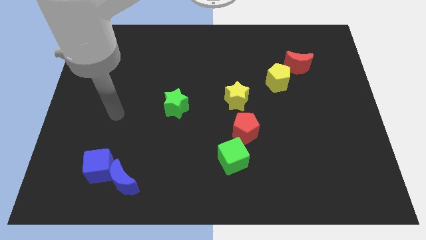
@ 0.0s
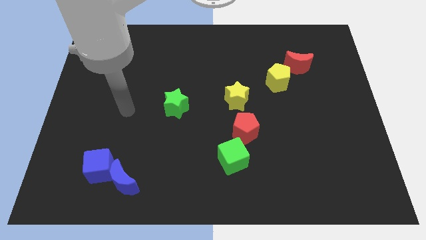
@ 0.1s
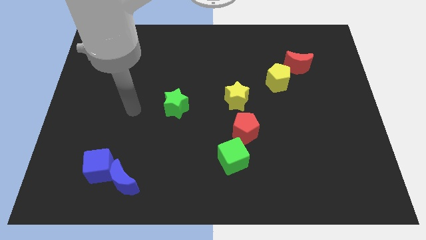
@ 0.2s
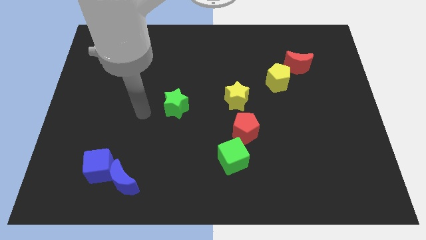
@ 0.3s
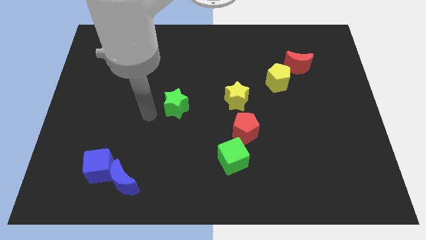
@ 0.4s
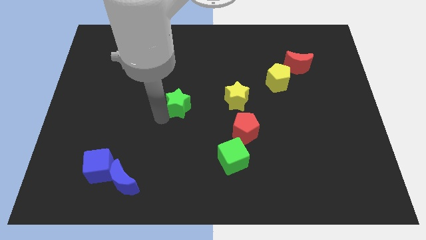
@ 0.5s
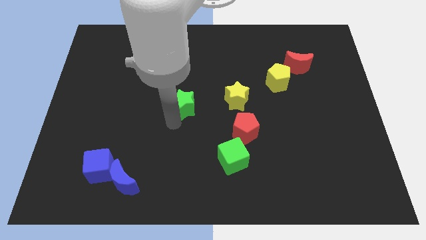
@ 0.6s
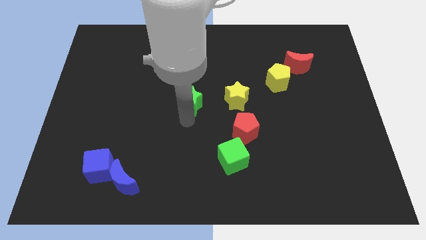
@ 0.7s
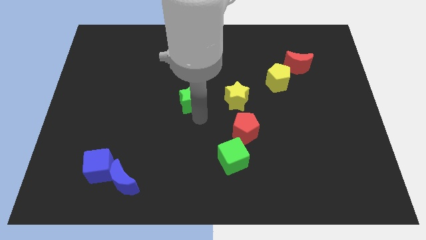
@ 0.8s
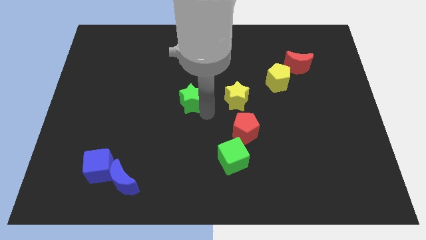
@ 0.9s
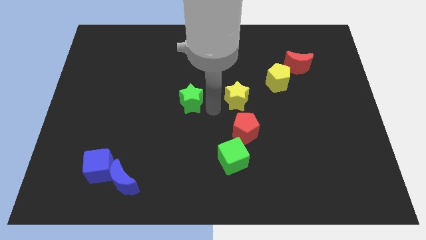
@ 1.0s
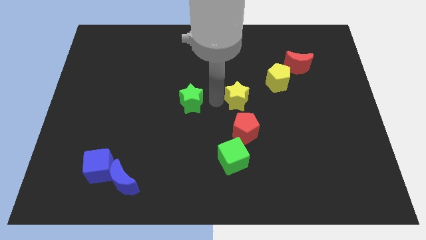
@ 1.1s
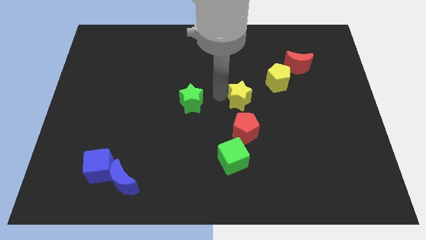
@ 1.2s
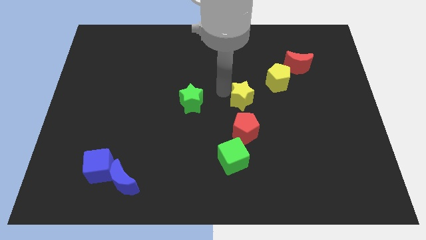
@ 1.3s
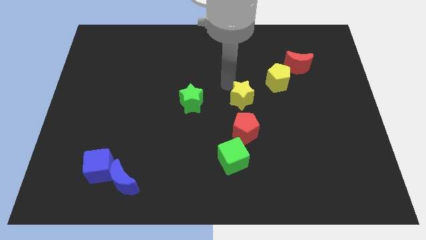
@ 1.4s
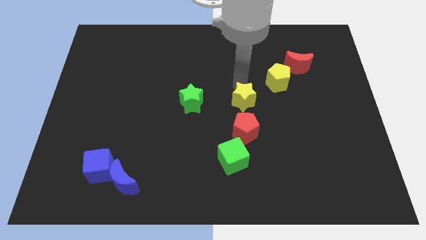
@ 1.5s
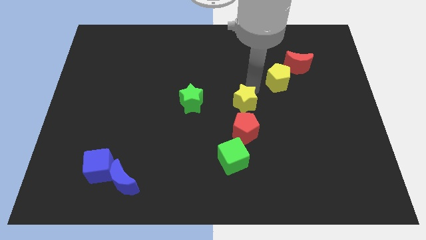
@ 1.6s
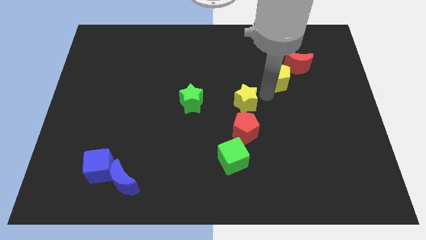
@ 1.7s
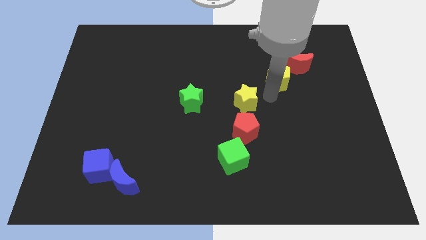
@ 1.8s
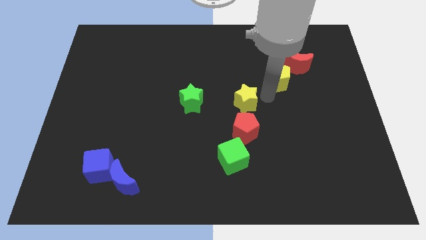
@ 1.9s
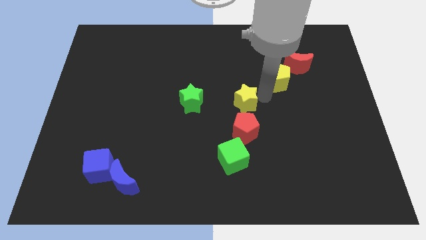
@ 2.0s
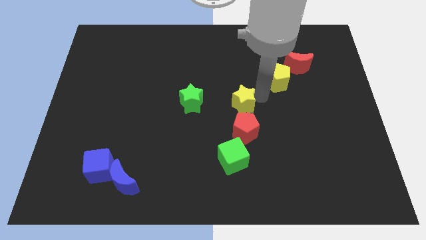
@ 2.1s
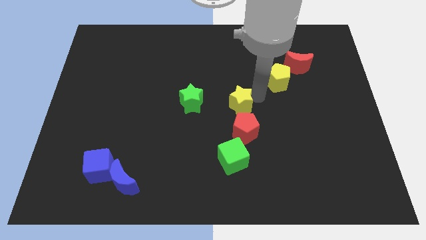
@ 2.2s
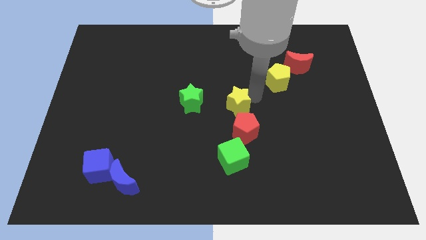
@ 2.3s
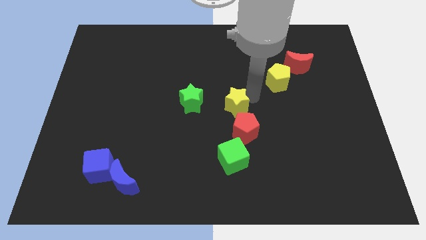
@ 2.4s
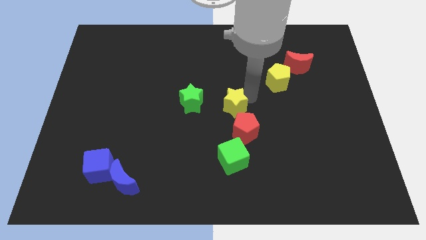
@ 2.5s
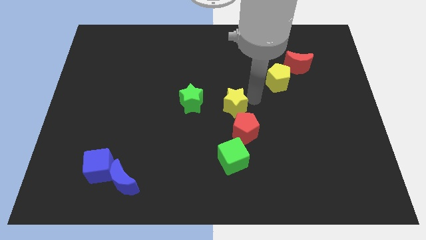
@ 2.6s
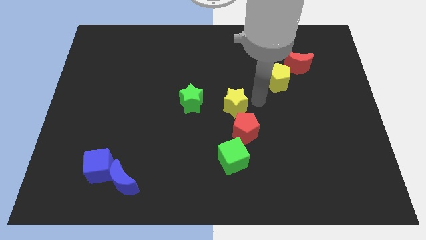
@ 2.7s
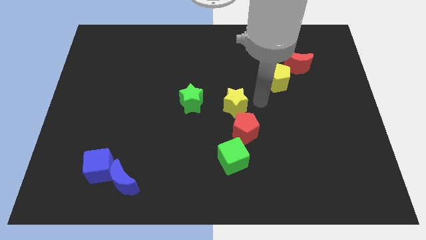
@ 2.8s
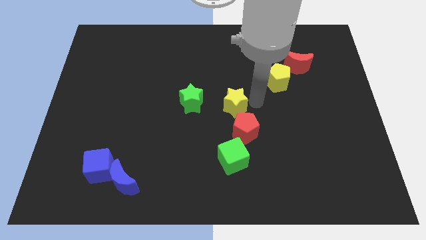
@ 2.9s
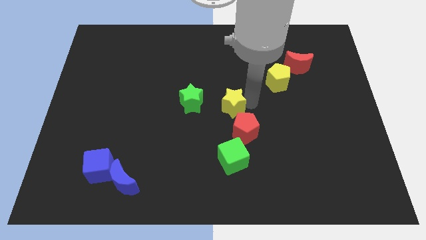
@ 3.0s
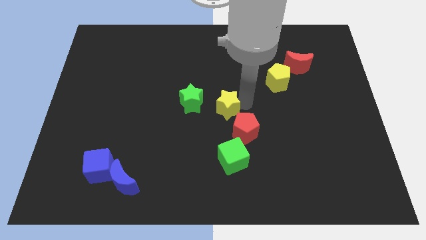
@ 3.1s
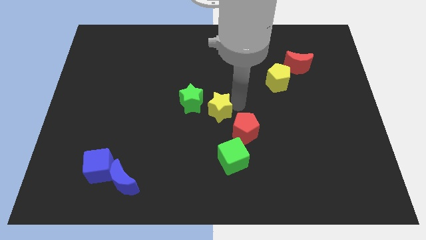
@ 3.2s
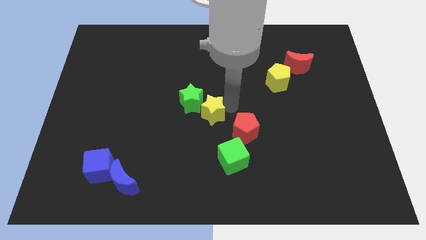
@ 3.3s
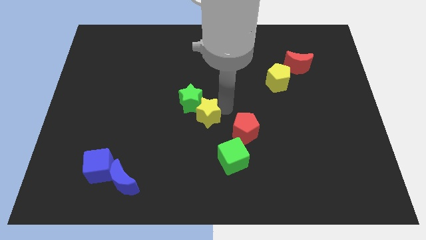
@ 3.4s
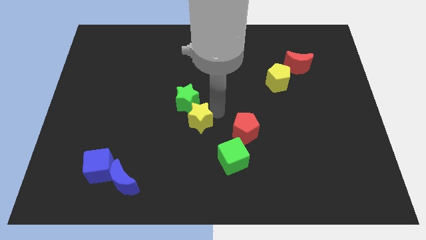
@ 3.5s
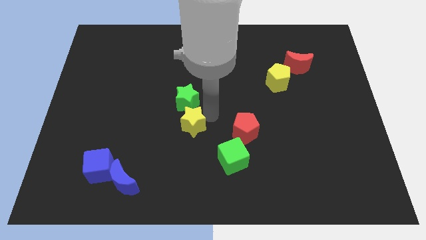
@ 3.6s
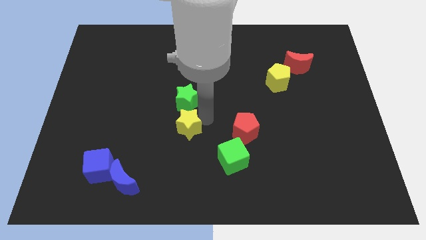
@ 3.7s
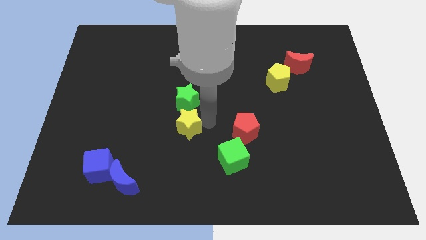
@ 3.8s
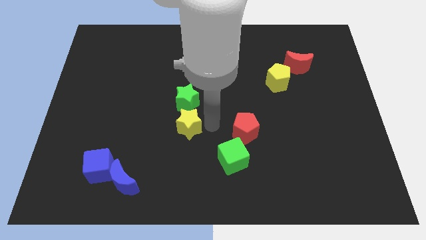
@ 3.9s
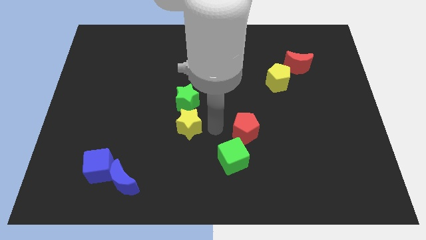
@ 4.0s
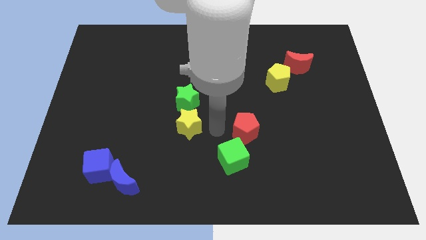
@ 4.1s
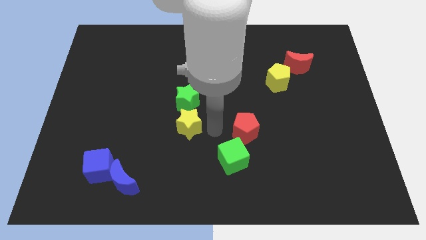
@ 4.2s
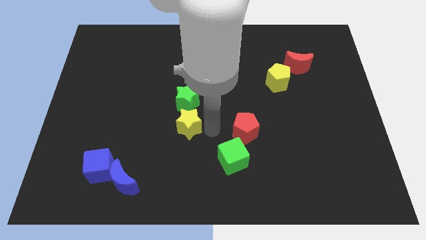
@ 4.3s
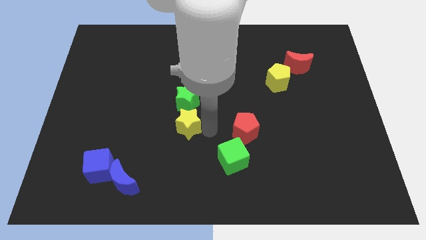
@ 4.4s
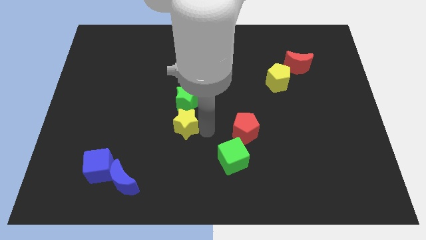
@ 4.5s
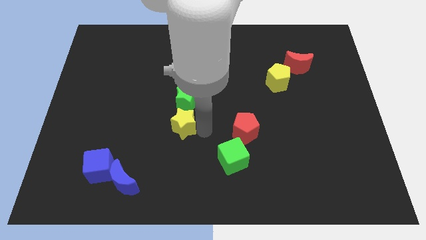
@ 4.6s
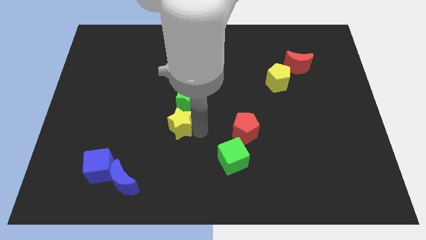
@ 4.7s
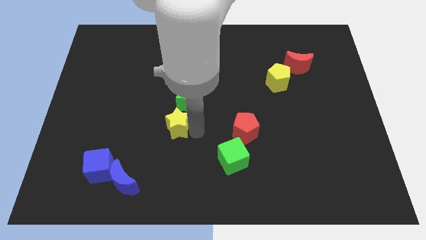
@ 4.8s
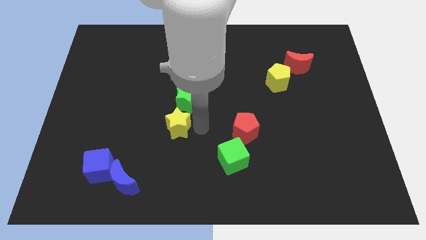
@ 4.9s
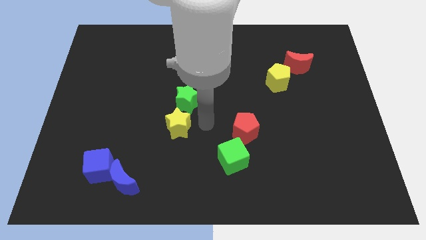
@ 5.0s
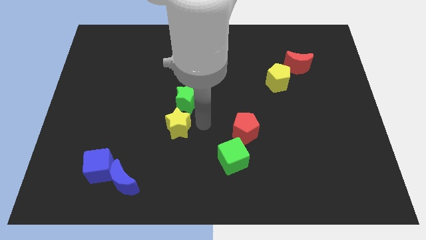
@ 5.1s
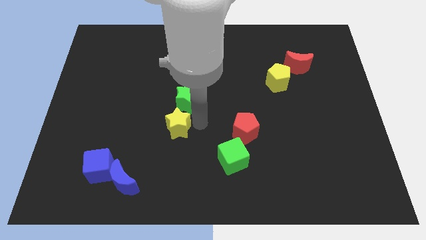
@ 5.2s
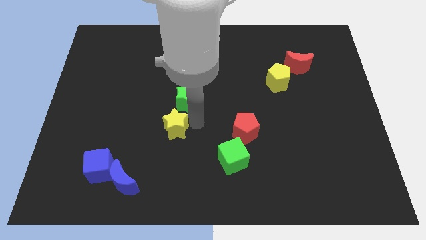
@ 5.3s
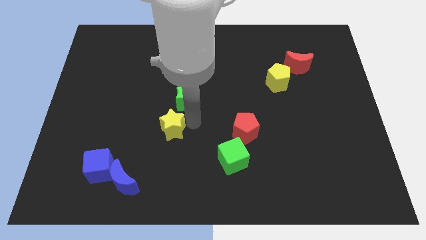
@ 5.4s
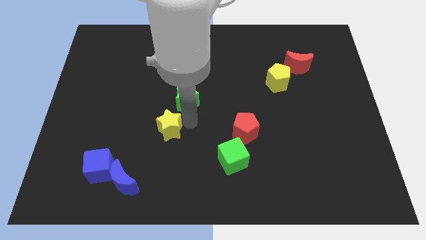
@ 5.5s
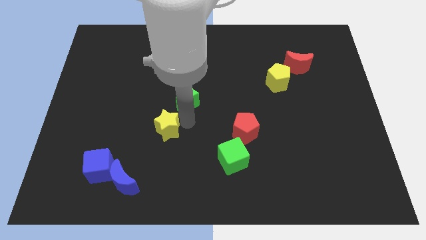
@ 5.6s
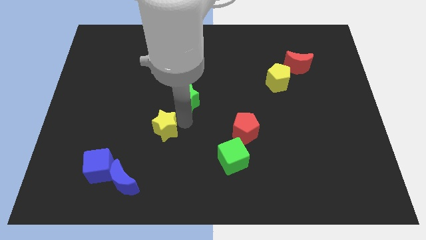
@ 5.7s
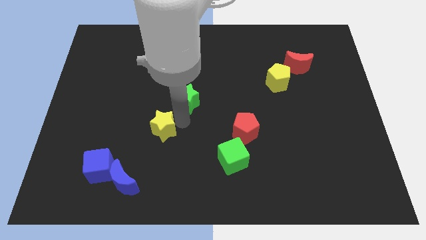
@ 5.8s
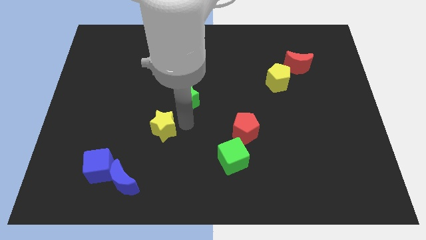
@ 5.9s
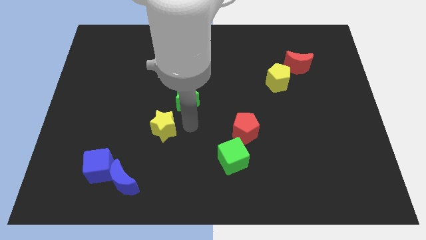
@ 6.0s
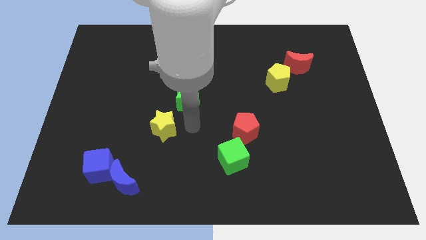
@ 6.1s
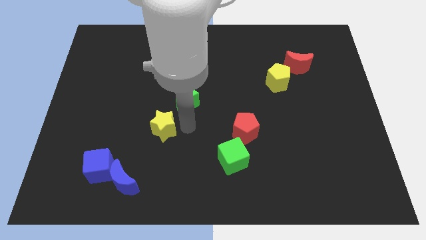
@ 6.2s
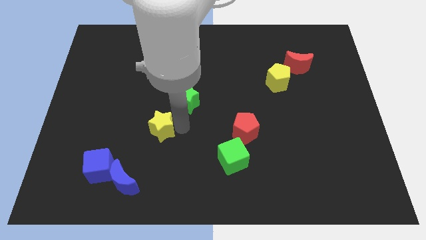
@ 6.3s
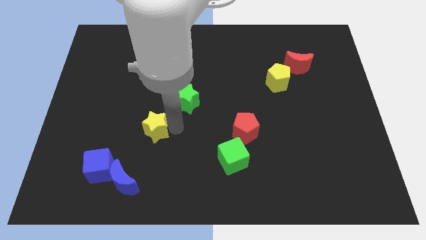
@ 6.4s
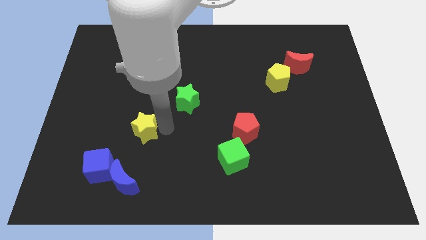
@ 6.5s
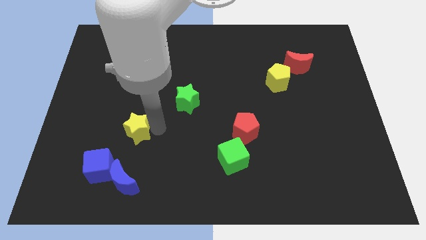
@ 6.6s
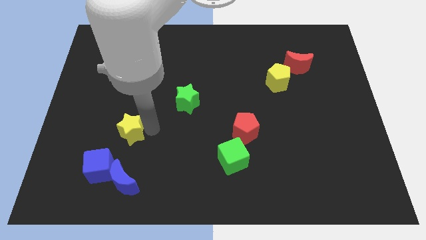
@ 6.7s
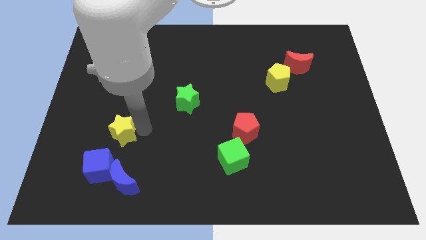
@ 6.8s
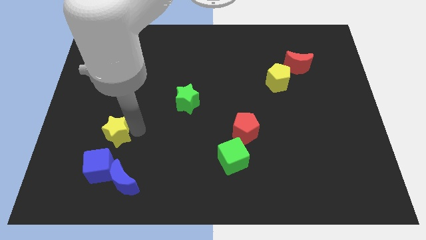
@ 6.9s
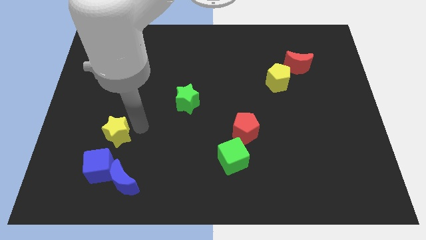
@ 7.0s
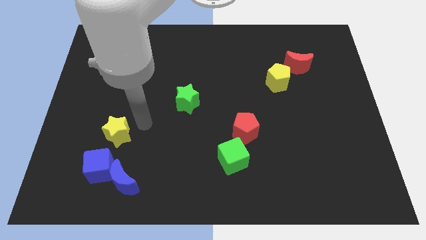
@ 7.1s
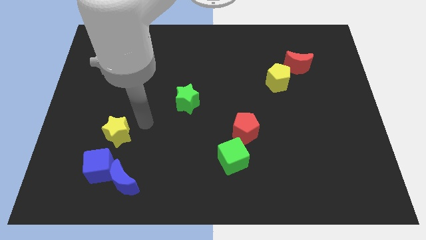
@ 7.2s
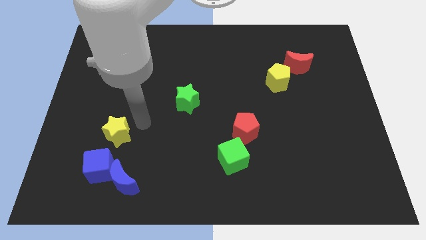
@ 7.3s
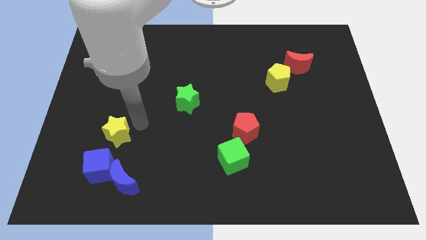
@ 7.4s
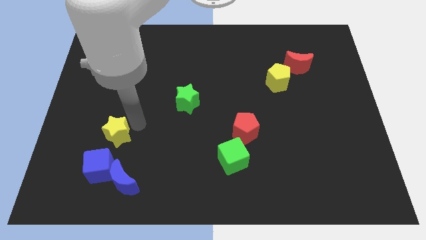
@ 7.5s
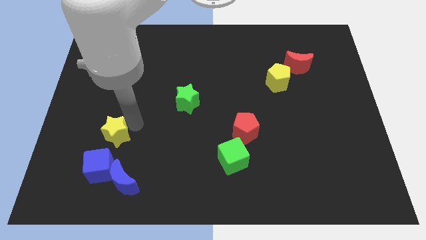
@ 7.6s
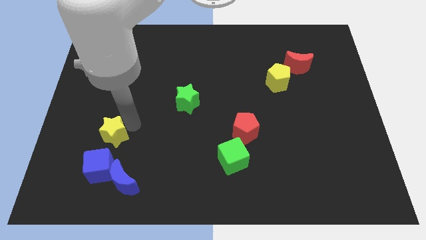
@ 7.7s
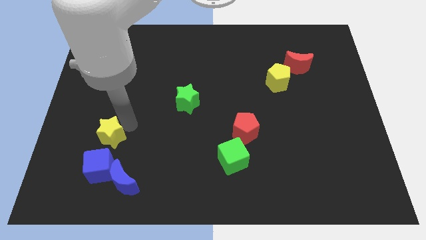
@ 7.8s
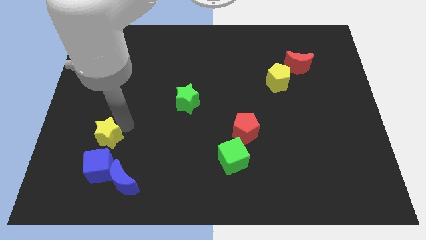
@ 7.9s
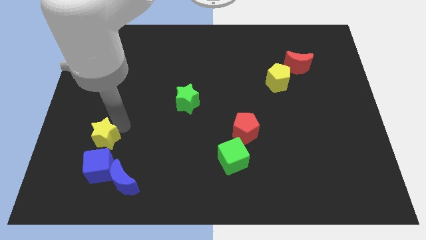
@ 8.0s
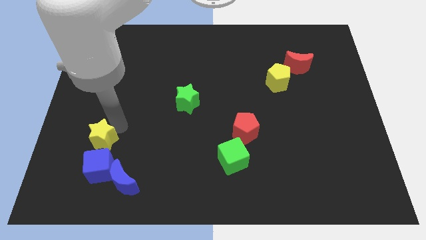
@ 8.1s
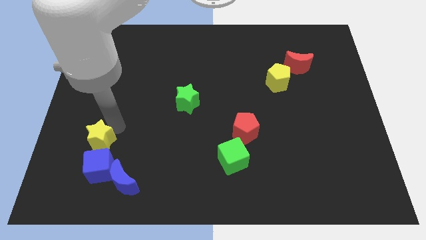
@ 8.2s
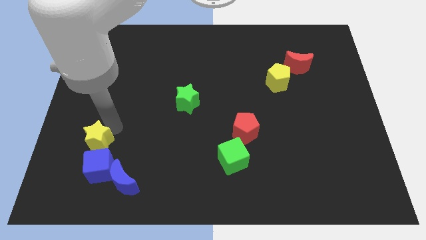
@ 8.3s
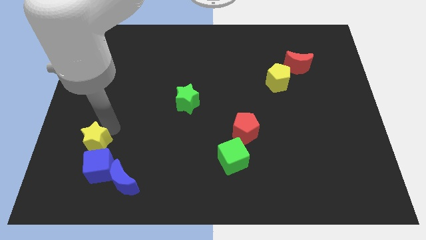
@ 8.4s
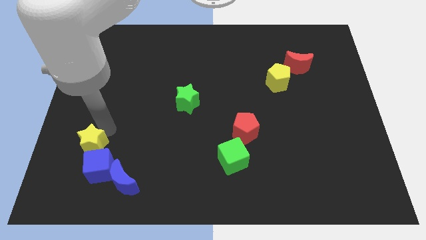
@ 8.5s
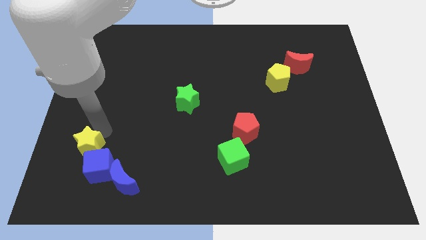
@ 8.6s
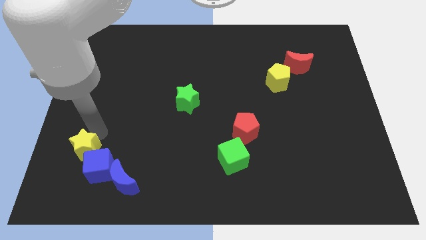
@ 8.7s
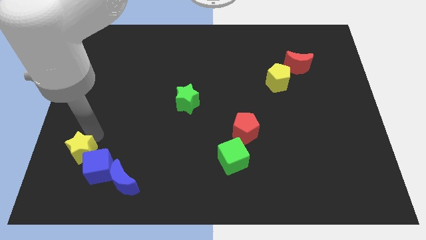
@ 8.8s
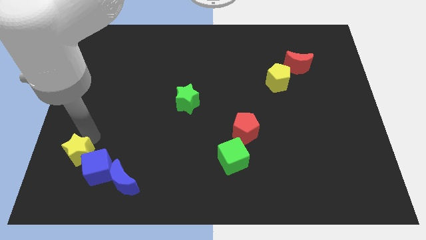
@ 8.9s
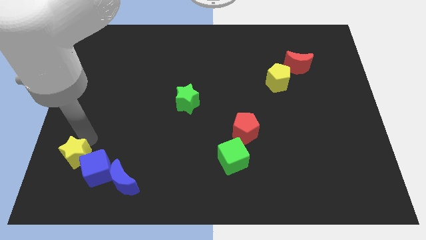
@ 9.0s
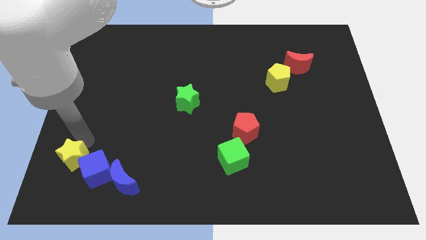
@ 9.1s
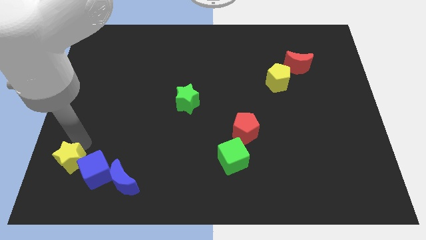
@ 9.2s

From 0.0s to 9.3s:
push the yellow star just left of the blue moon
